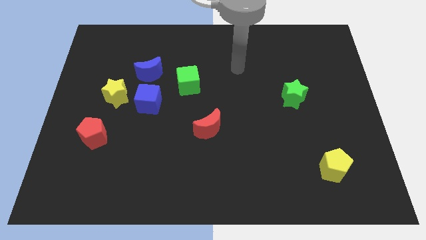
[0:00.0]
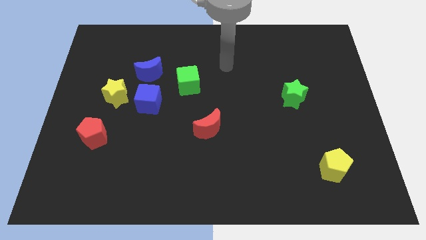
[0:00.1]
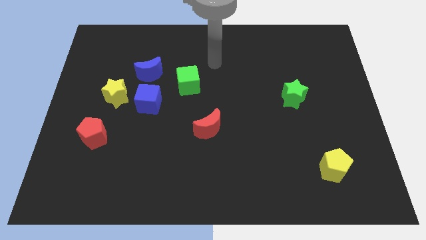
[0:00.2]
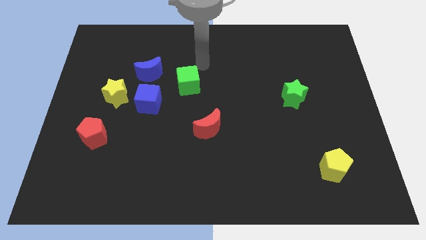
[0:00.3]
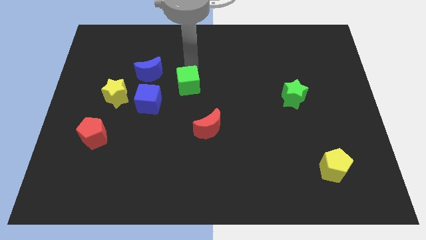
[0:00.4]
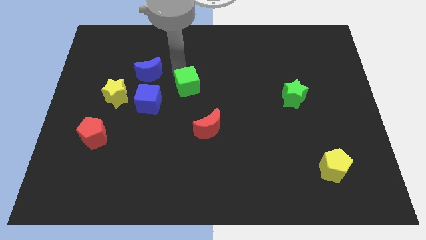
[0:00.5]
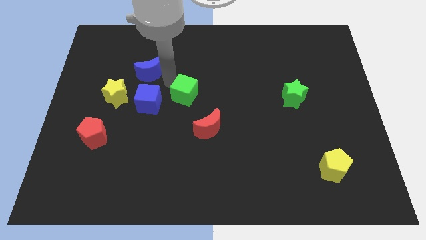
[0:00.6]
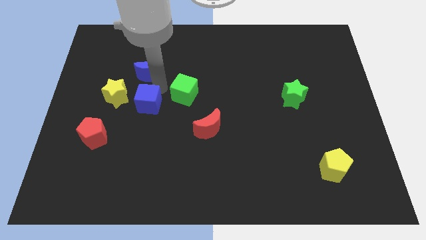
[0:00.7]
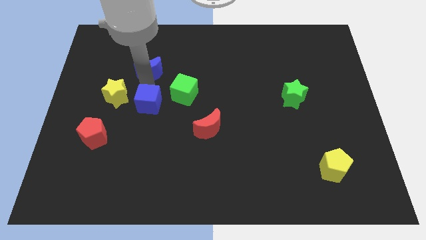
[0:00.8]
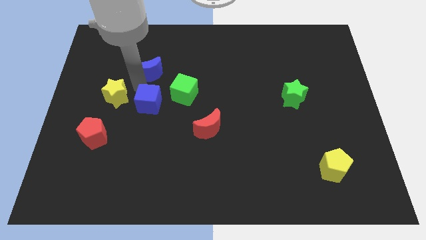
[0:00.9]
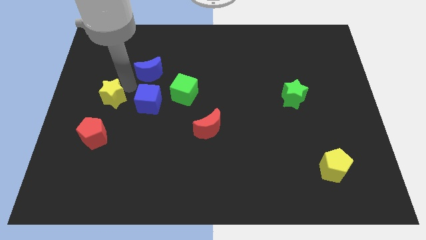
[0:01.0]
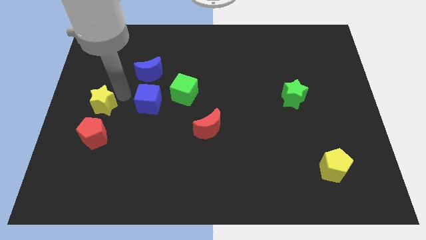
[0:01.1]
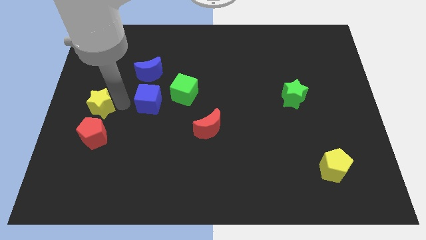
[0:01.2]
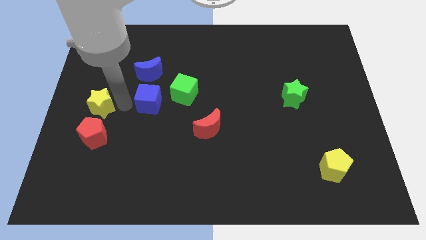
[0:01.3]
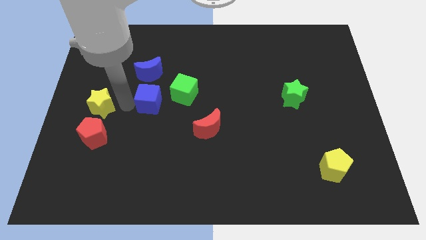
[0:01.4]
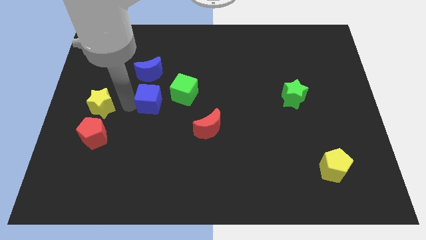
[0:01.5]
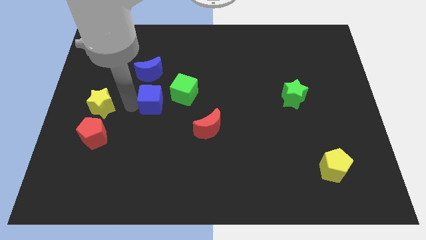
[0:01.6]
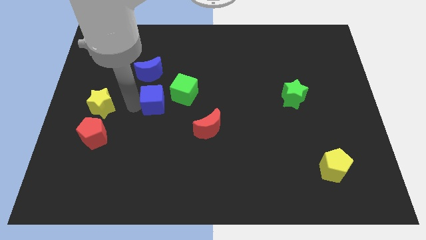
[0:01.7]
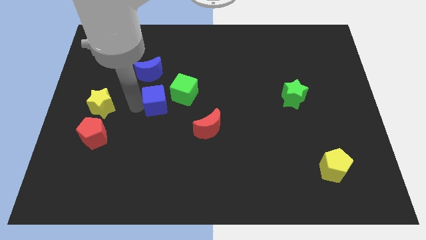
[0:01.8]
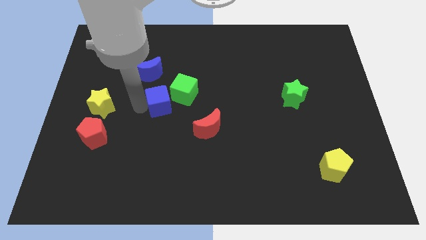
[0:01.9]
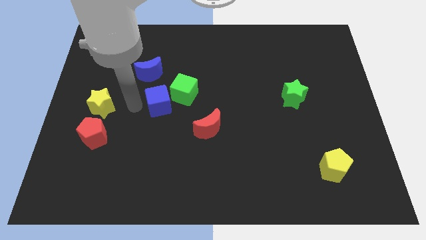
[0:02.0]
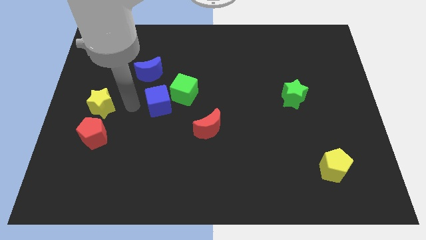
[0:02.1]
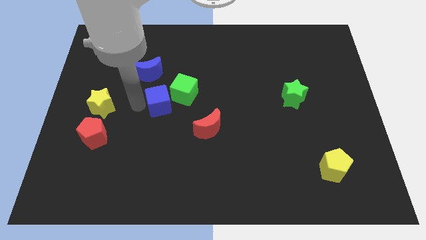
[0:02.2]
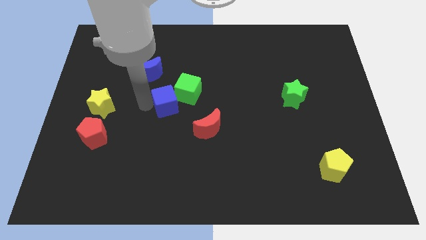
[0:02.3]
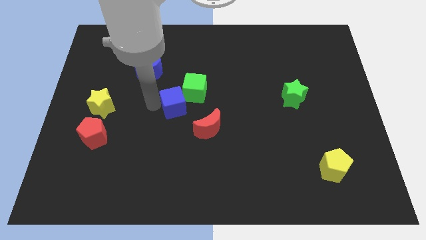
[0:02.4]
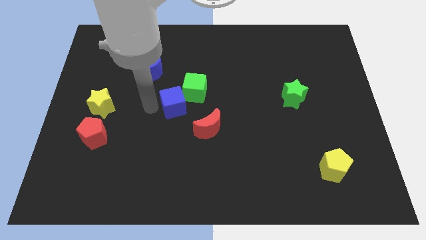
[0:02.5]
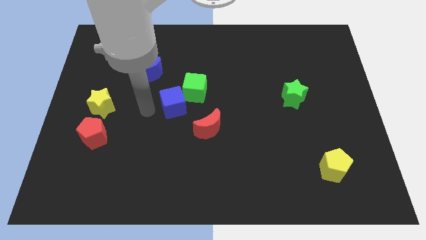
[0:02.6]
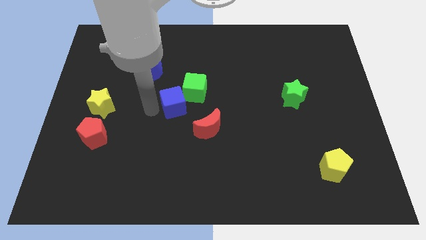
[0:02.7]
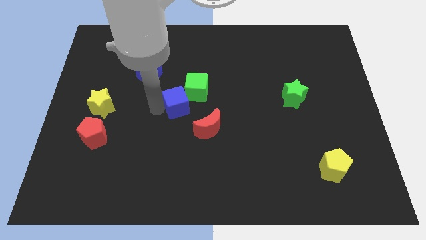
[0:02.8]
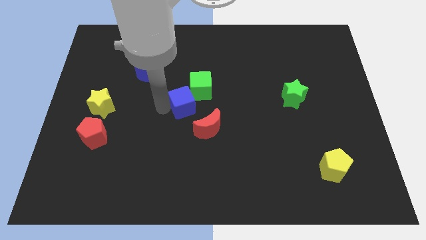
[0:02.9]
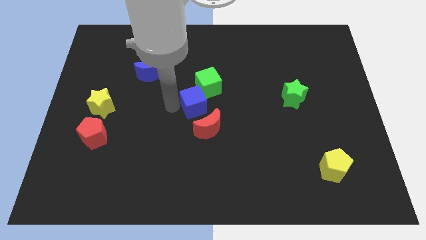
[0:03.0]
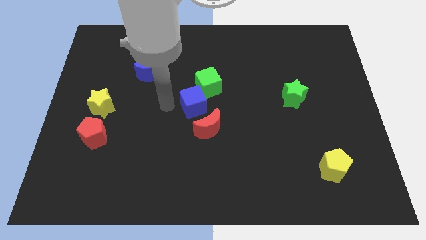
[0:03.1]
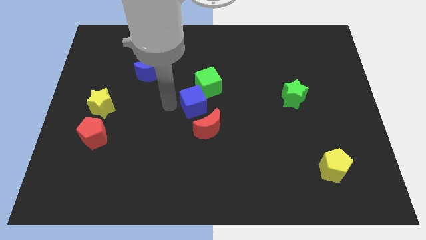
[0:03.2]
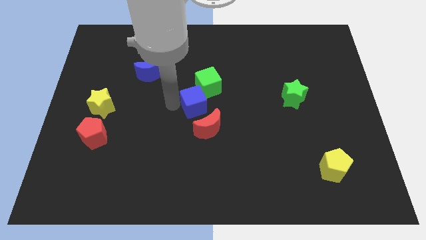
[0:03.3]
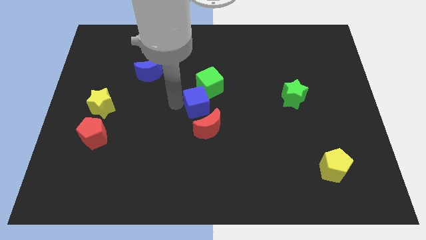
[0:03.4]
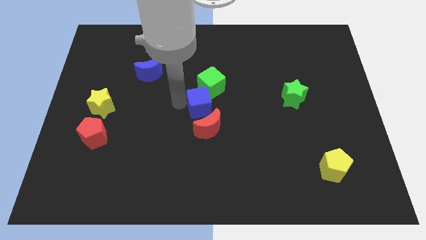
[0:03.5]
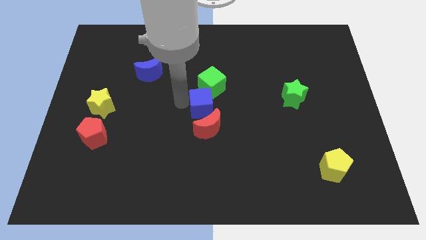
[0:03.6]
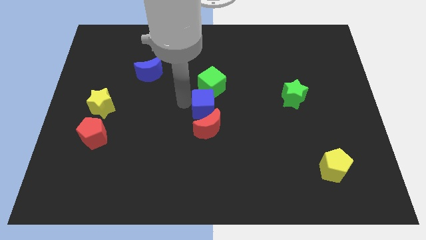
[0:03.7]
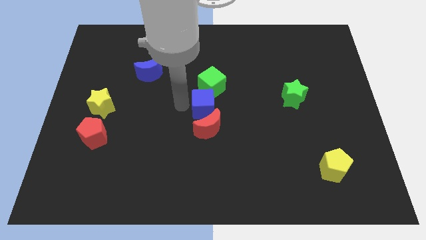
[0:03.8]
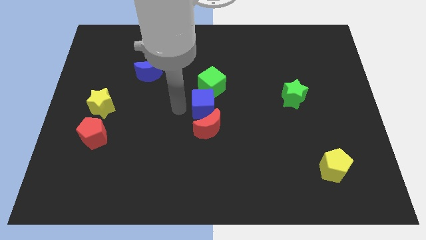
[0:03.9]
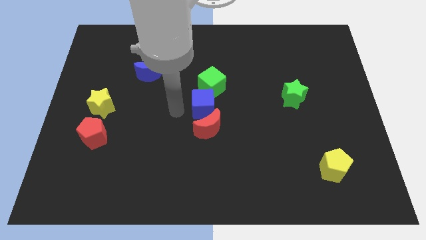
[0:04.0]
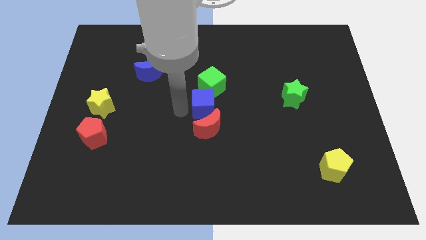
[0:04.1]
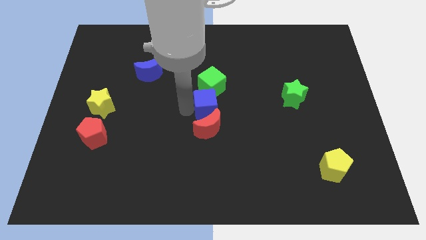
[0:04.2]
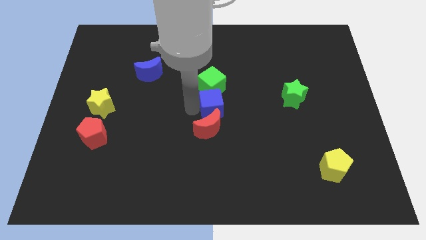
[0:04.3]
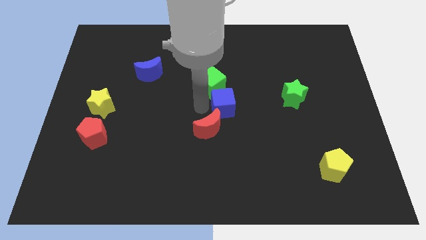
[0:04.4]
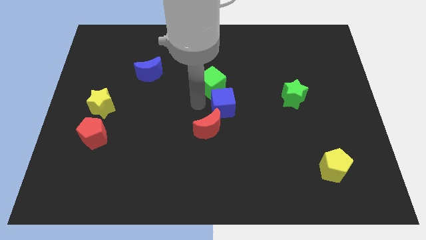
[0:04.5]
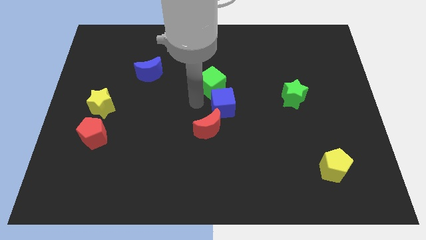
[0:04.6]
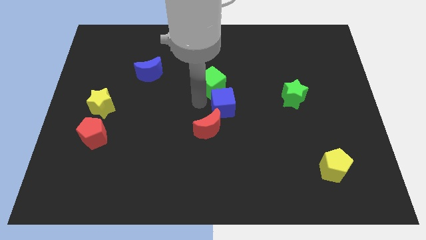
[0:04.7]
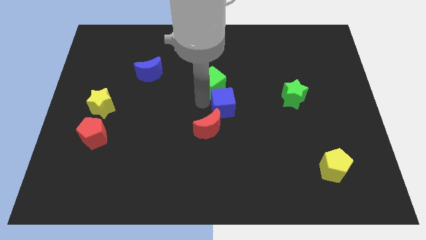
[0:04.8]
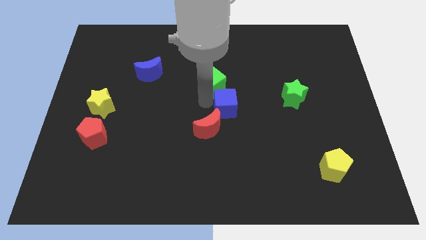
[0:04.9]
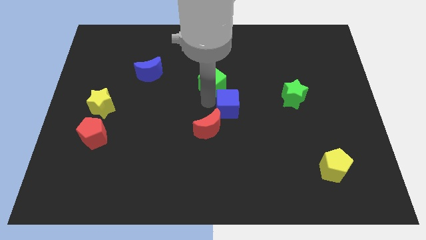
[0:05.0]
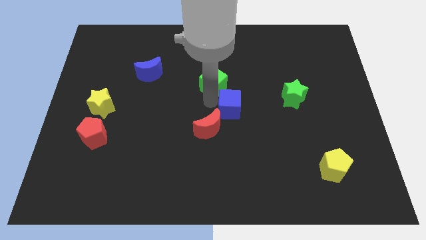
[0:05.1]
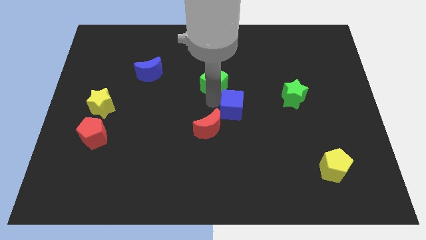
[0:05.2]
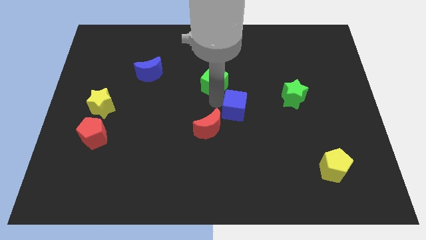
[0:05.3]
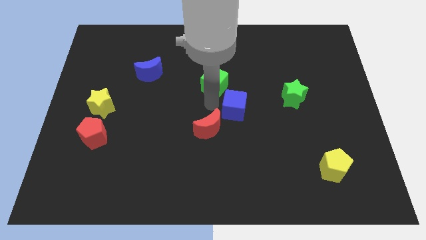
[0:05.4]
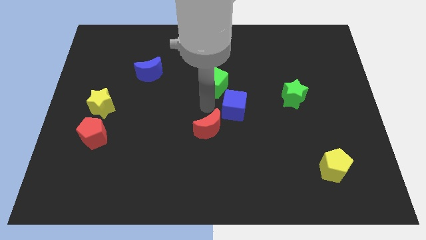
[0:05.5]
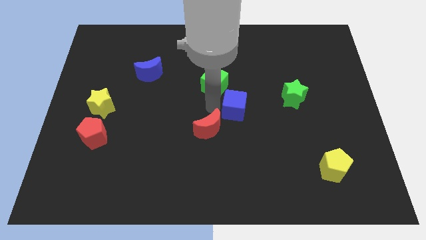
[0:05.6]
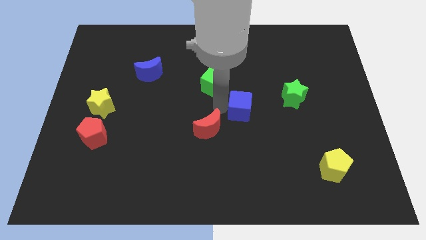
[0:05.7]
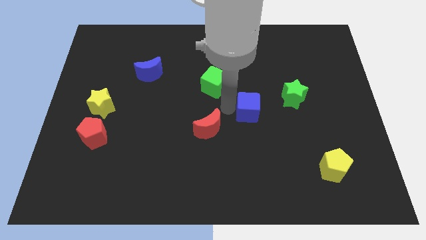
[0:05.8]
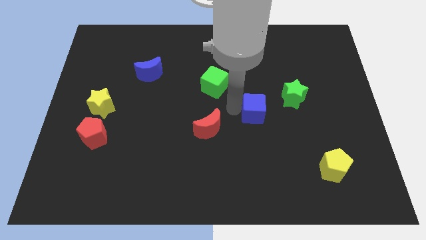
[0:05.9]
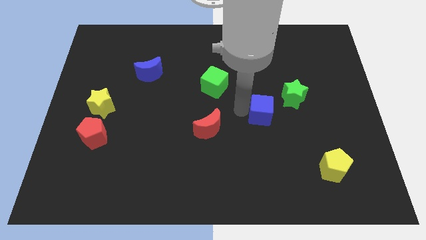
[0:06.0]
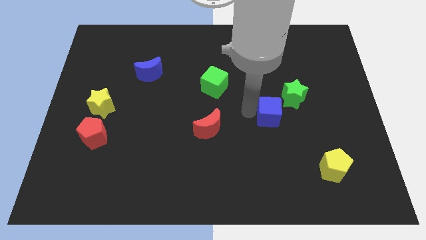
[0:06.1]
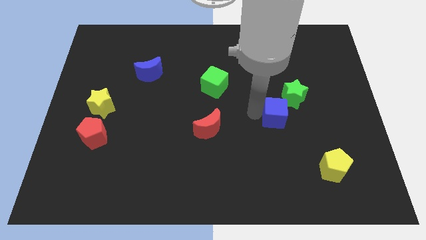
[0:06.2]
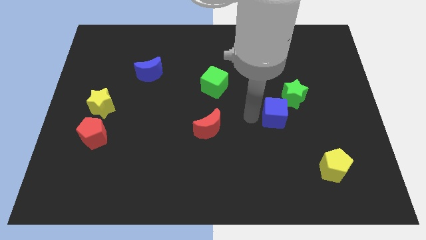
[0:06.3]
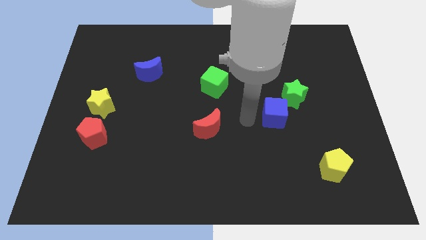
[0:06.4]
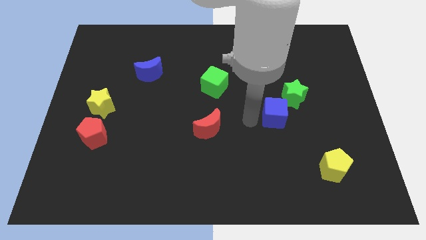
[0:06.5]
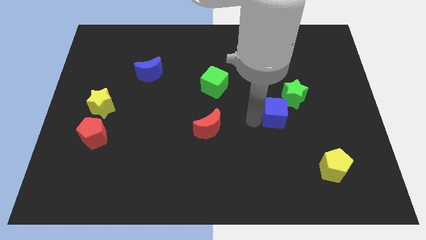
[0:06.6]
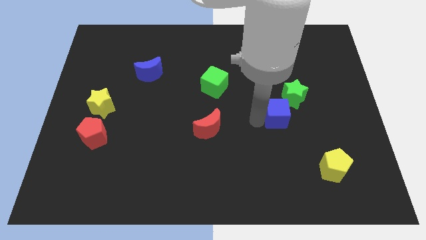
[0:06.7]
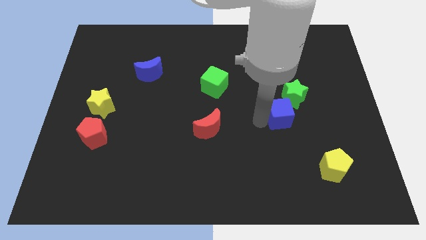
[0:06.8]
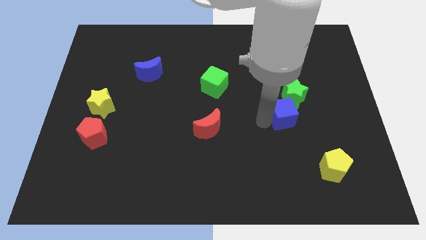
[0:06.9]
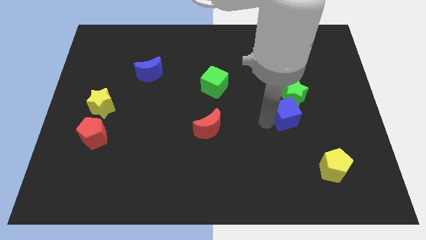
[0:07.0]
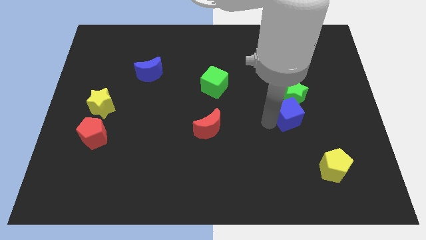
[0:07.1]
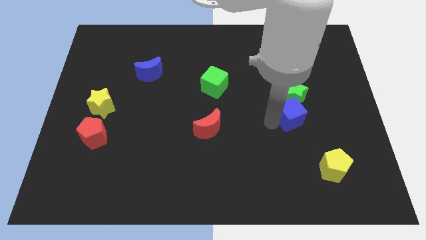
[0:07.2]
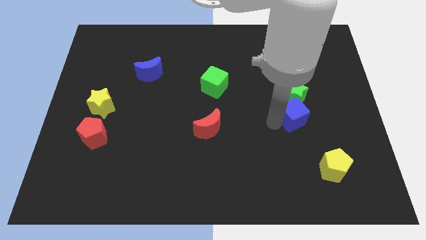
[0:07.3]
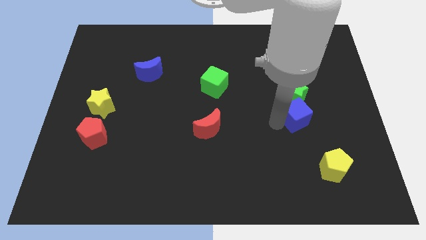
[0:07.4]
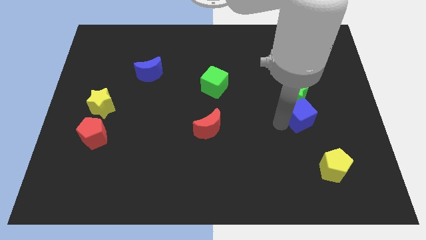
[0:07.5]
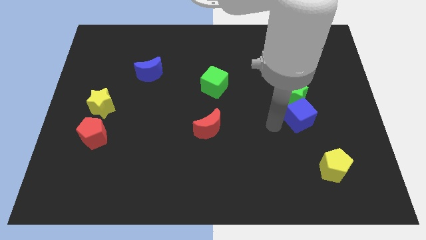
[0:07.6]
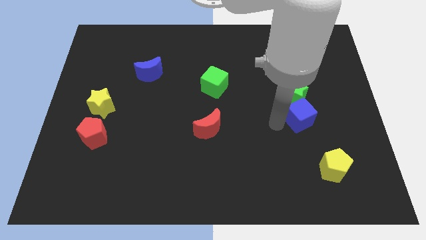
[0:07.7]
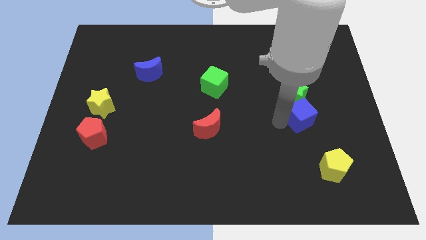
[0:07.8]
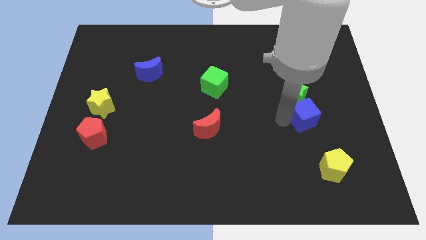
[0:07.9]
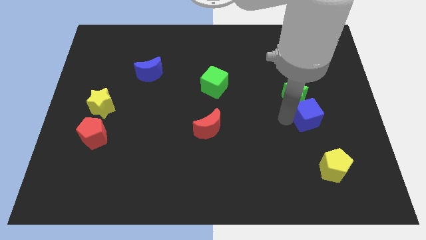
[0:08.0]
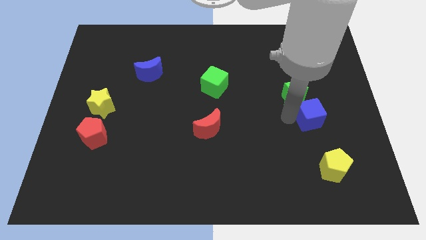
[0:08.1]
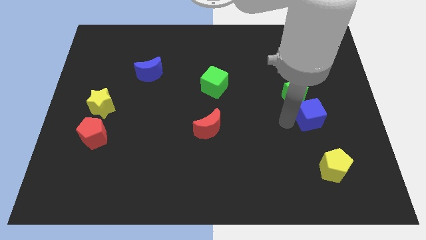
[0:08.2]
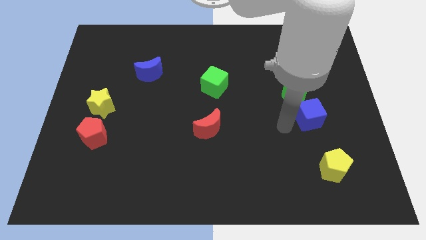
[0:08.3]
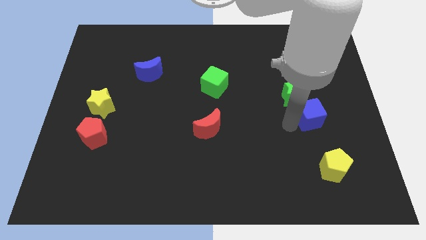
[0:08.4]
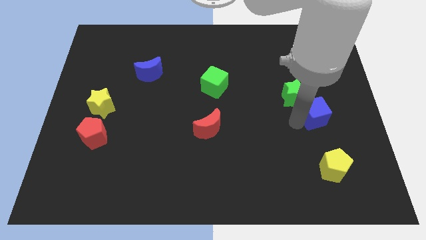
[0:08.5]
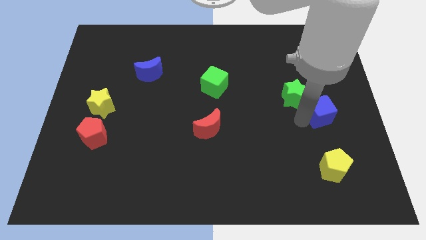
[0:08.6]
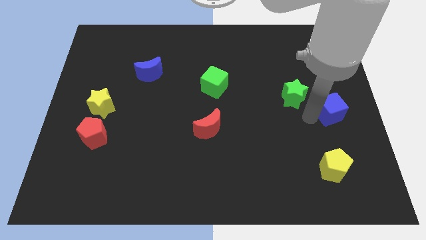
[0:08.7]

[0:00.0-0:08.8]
put the blue cube to the right side of the board
